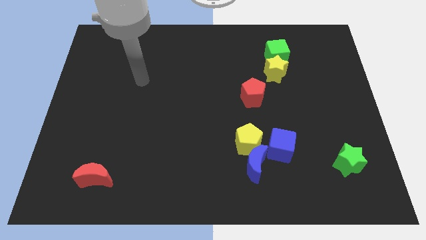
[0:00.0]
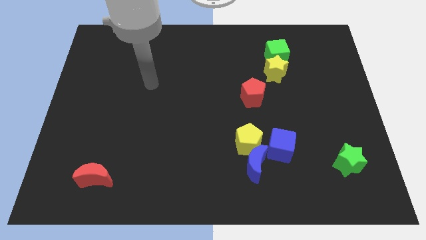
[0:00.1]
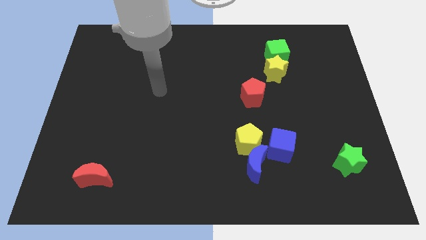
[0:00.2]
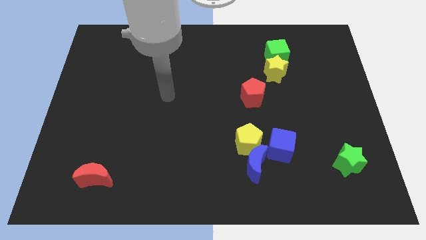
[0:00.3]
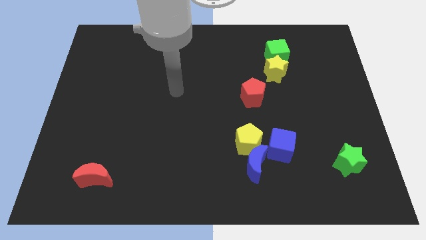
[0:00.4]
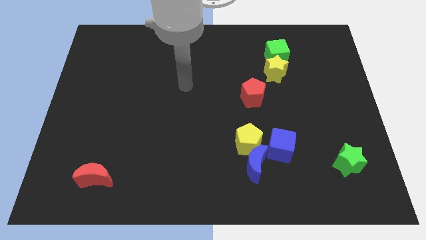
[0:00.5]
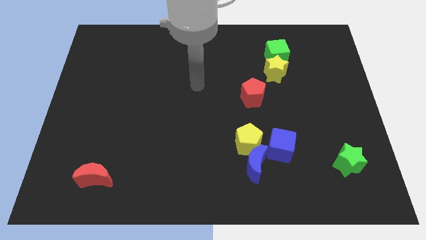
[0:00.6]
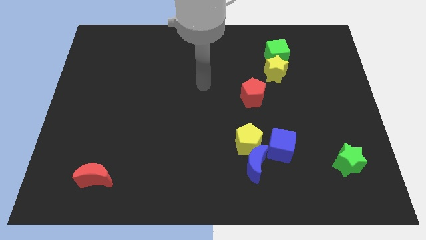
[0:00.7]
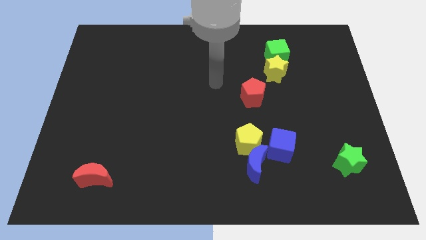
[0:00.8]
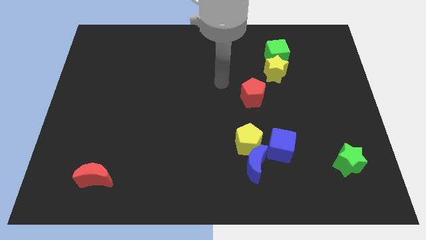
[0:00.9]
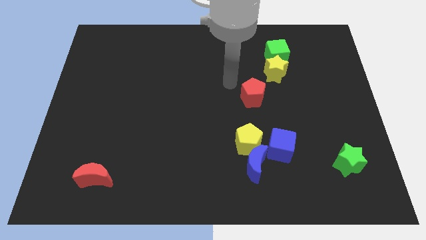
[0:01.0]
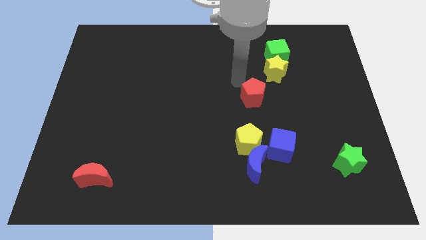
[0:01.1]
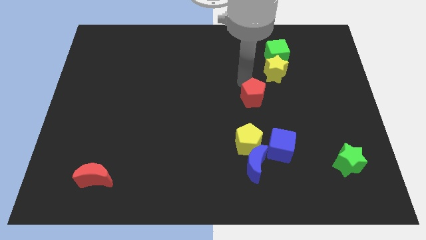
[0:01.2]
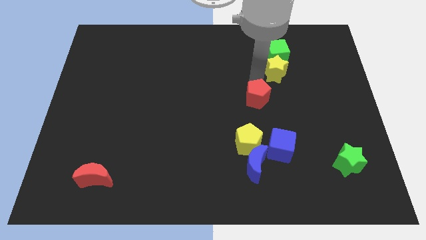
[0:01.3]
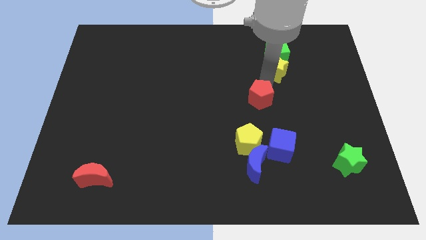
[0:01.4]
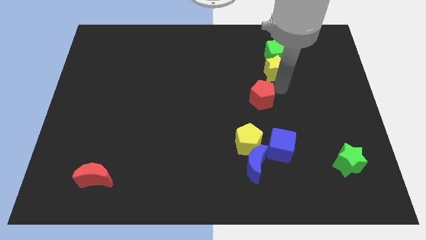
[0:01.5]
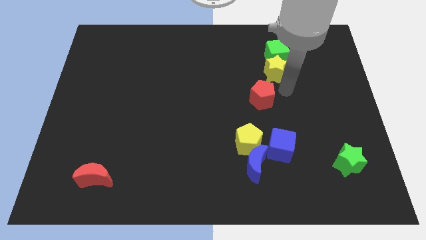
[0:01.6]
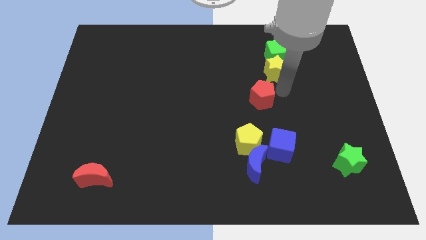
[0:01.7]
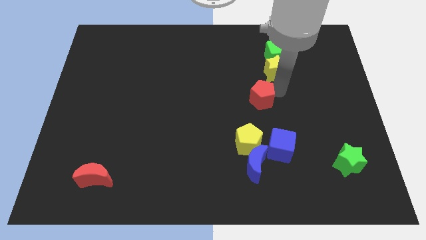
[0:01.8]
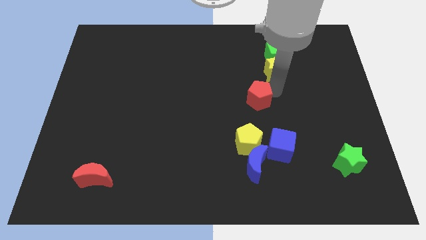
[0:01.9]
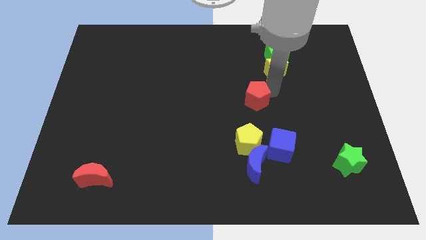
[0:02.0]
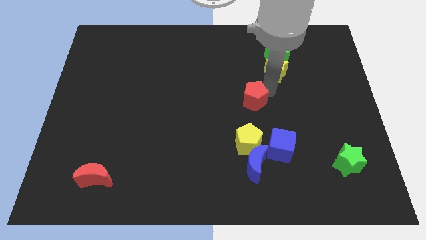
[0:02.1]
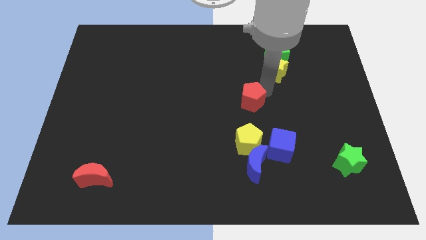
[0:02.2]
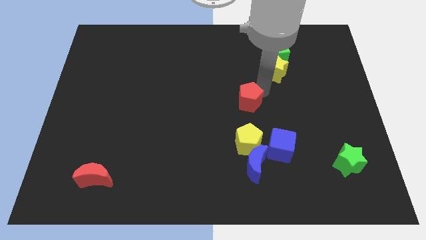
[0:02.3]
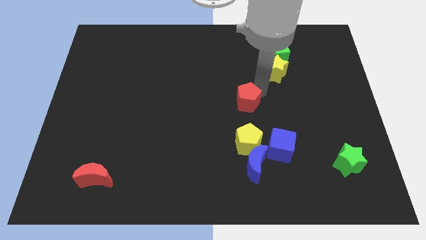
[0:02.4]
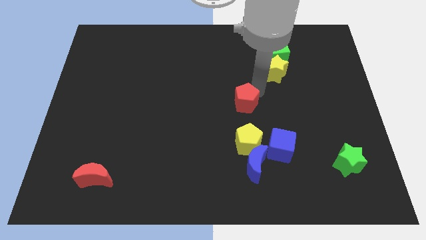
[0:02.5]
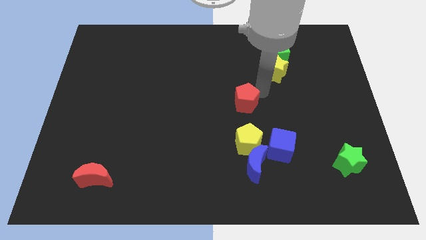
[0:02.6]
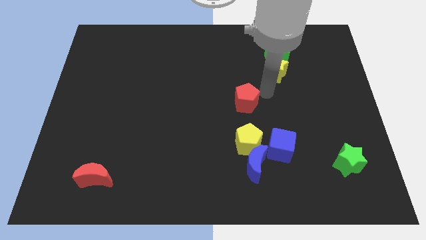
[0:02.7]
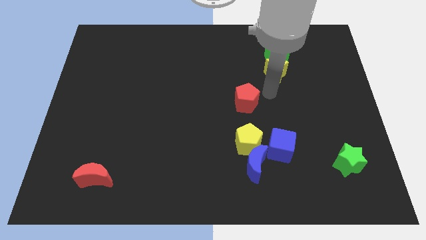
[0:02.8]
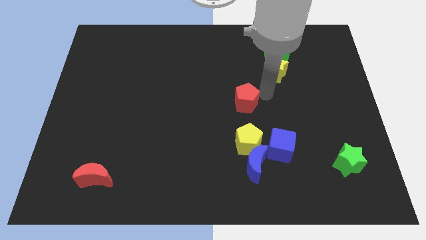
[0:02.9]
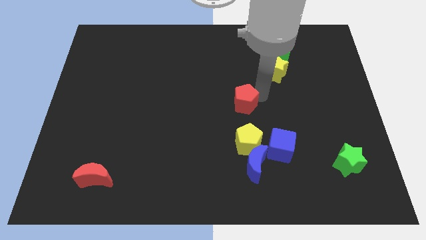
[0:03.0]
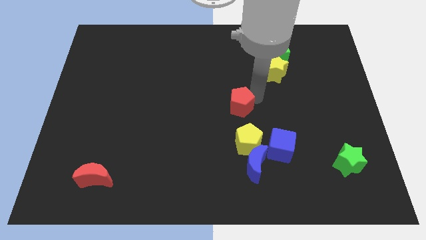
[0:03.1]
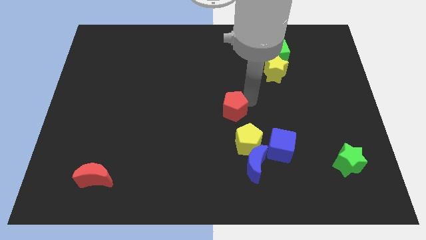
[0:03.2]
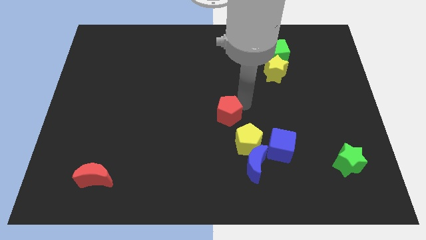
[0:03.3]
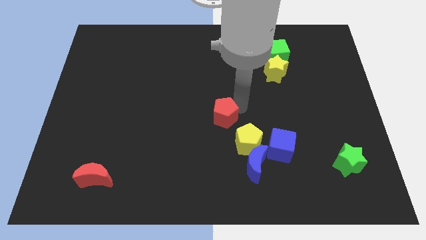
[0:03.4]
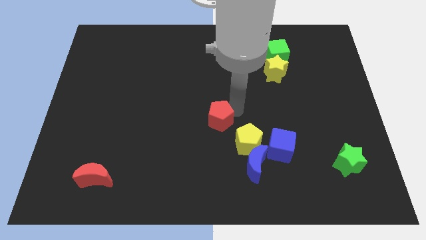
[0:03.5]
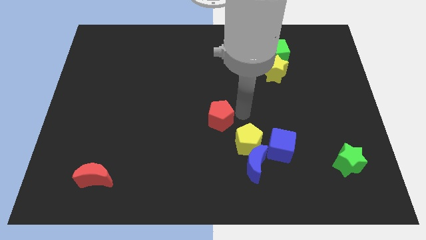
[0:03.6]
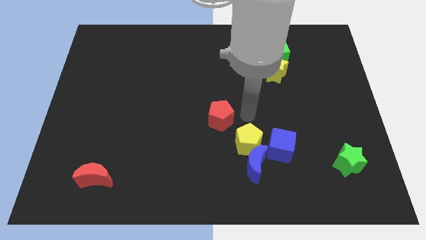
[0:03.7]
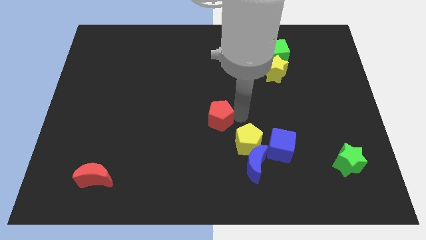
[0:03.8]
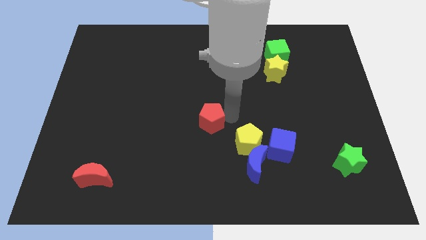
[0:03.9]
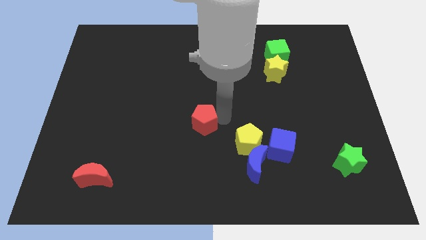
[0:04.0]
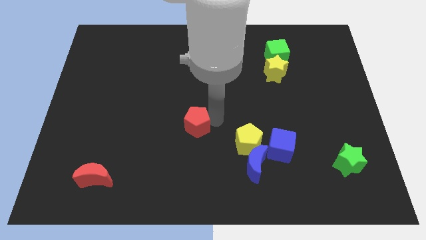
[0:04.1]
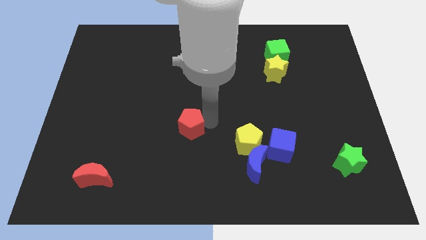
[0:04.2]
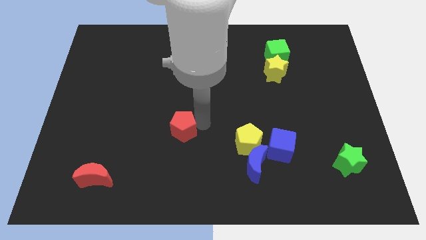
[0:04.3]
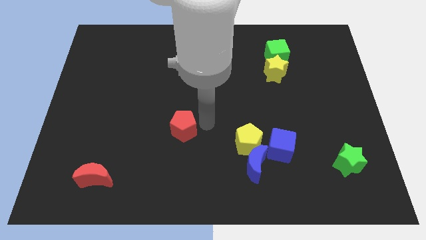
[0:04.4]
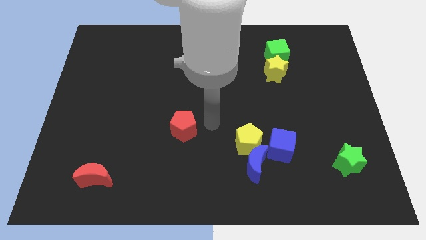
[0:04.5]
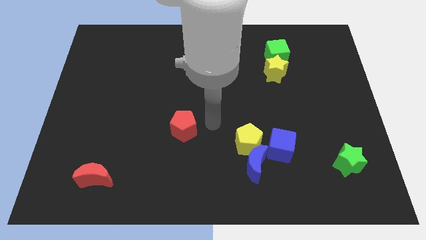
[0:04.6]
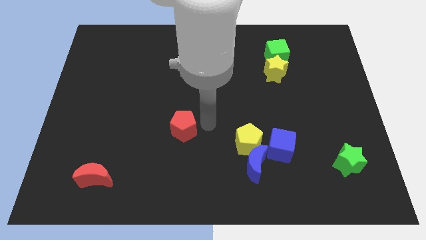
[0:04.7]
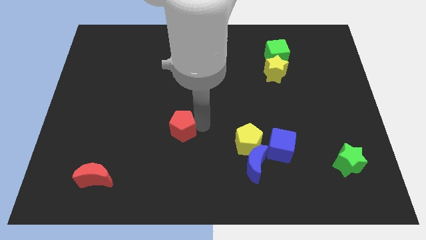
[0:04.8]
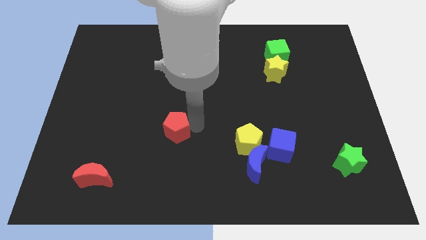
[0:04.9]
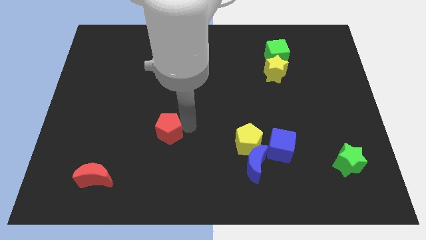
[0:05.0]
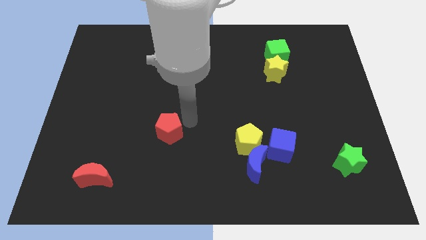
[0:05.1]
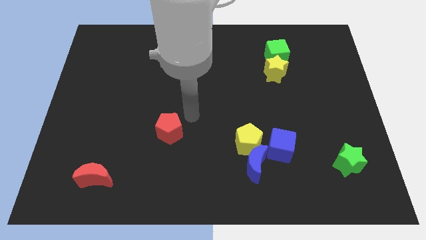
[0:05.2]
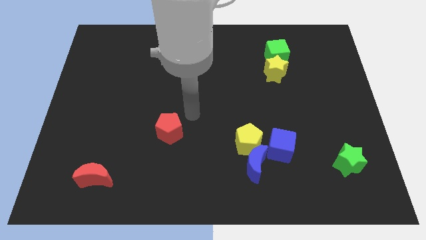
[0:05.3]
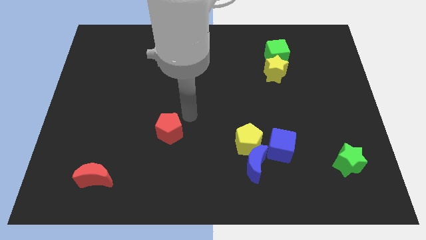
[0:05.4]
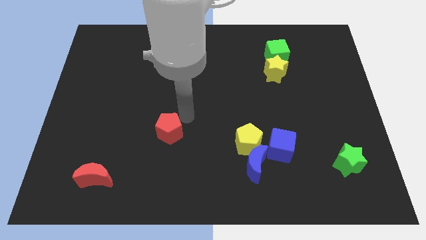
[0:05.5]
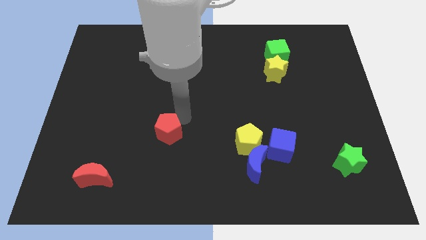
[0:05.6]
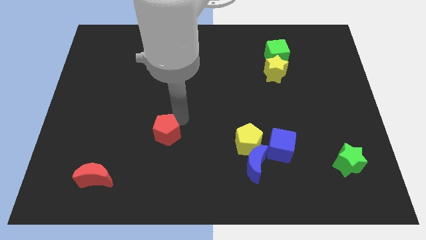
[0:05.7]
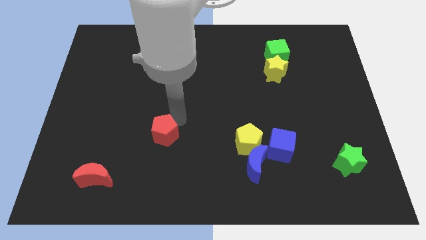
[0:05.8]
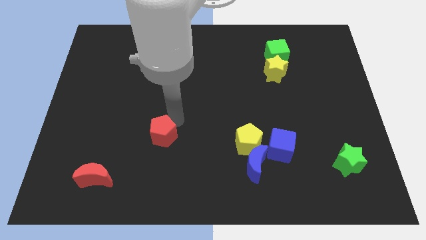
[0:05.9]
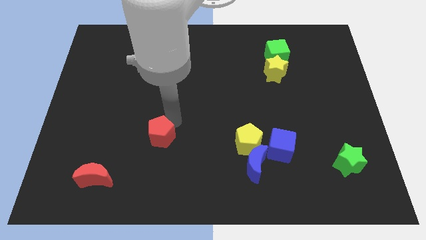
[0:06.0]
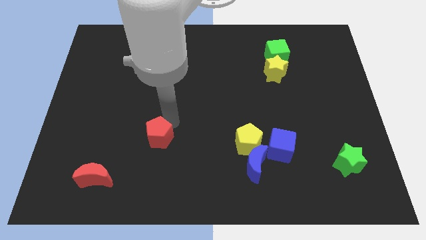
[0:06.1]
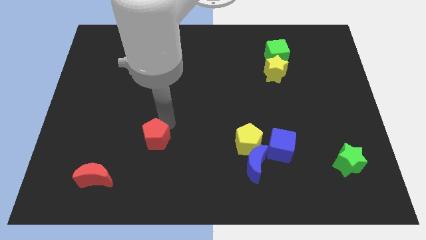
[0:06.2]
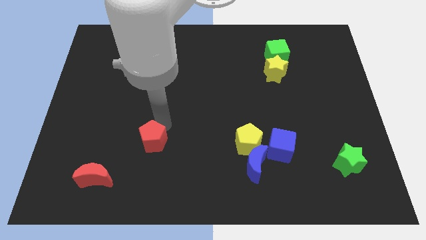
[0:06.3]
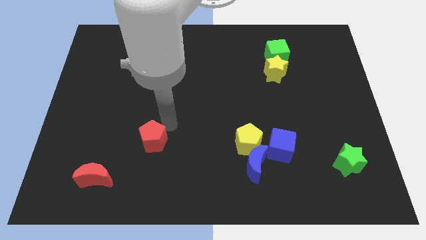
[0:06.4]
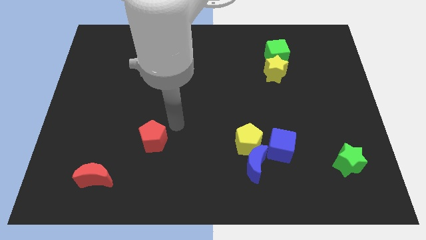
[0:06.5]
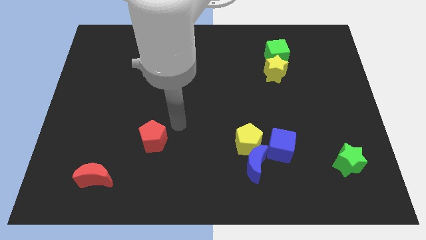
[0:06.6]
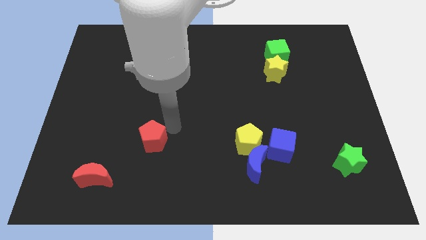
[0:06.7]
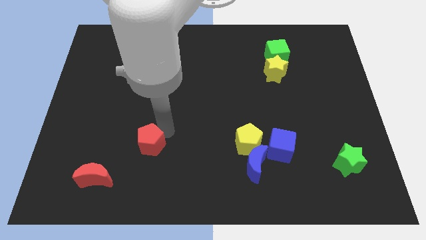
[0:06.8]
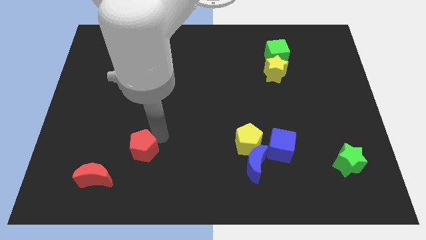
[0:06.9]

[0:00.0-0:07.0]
put the red pentagon diagonally up and to the right of the red moon

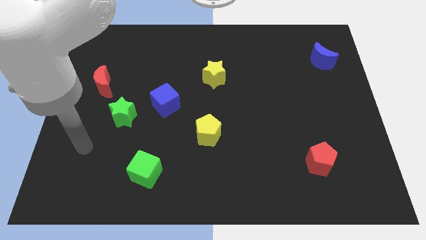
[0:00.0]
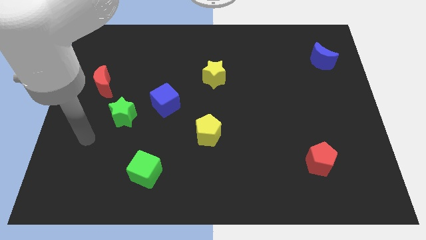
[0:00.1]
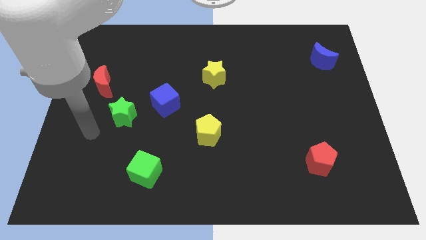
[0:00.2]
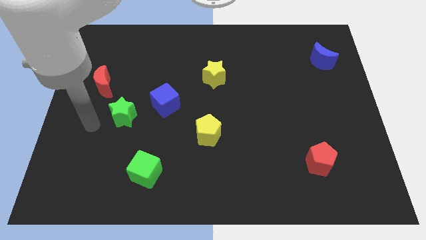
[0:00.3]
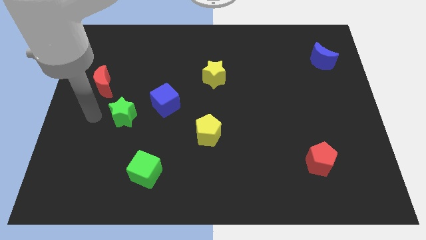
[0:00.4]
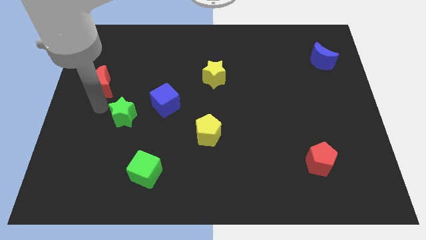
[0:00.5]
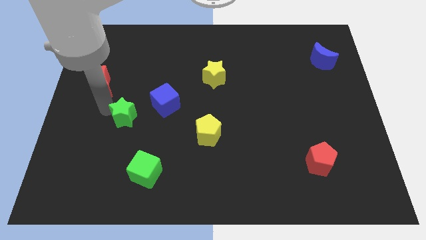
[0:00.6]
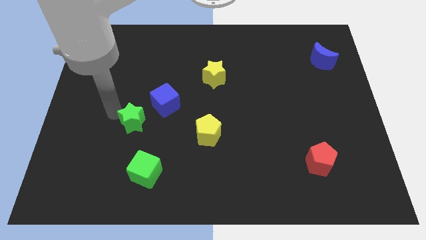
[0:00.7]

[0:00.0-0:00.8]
push the green star above the green cube
